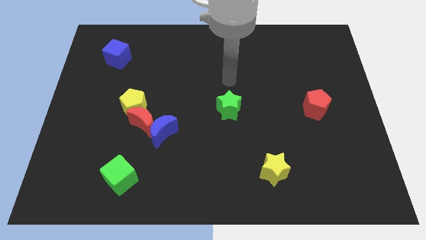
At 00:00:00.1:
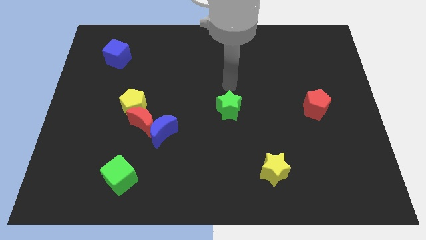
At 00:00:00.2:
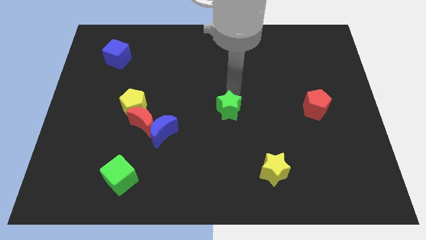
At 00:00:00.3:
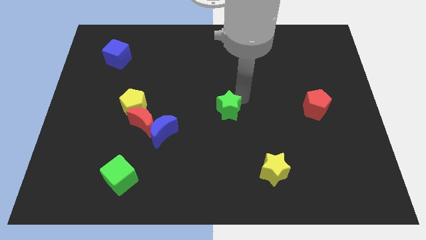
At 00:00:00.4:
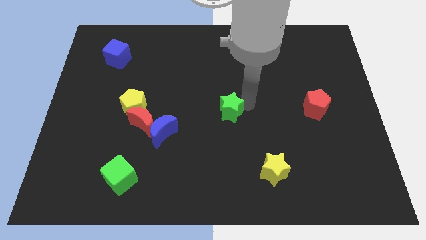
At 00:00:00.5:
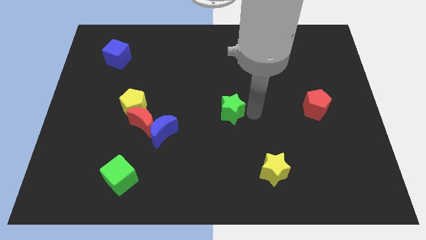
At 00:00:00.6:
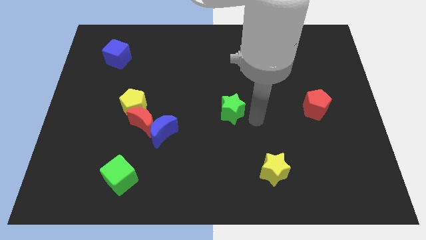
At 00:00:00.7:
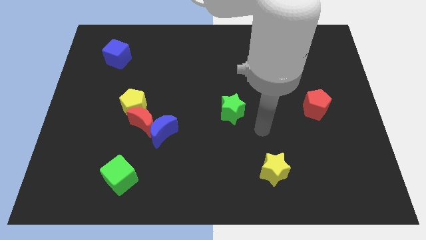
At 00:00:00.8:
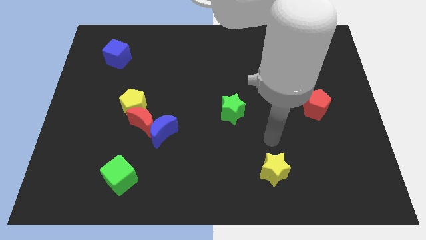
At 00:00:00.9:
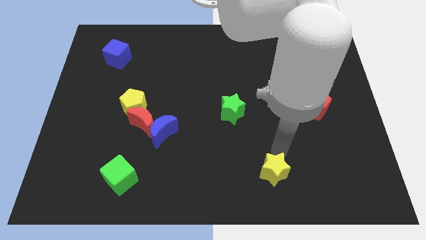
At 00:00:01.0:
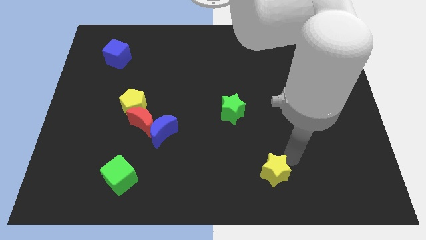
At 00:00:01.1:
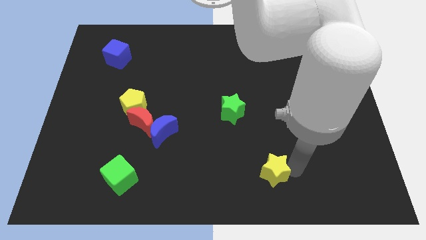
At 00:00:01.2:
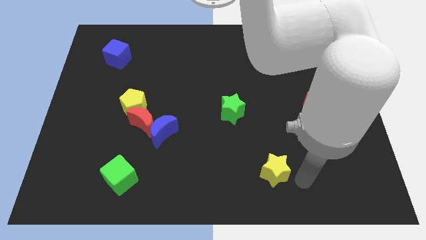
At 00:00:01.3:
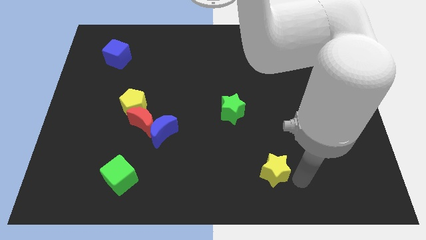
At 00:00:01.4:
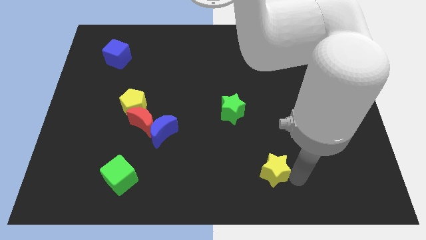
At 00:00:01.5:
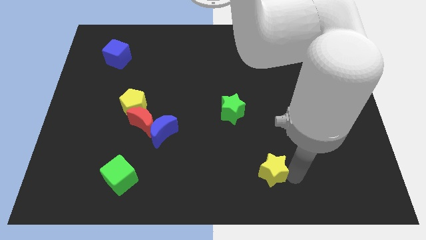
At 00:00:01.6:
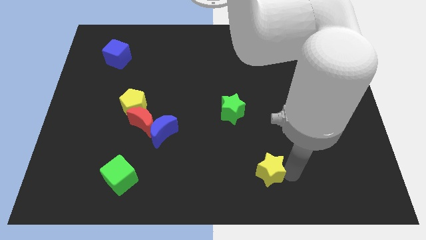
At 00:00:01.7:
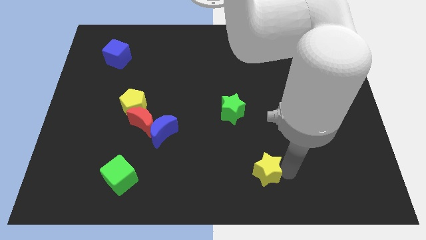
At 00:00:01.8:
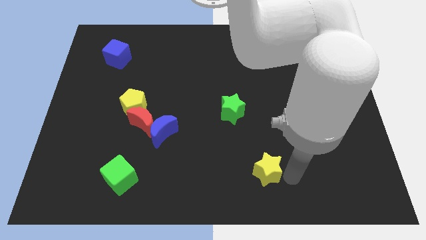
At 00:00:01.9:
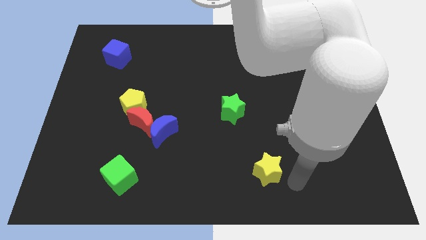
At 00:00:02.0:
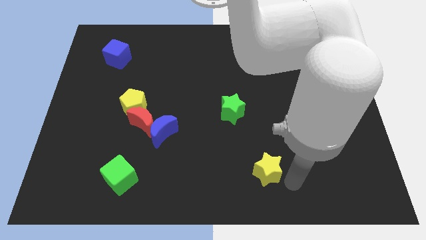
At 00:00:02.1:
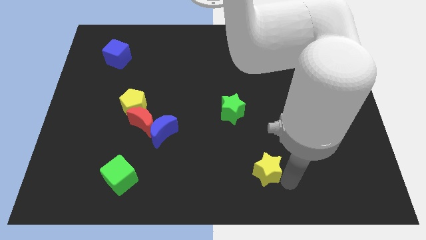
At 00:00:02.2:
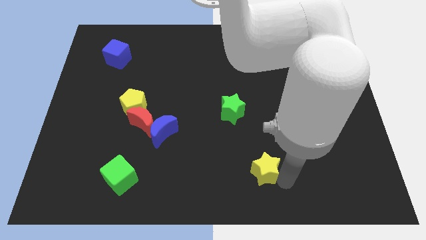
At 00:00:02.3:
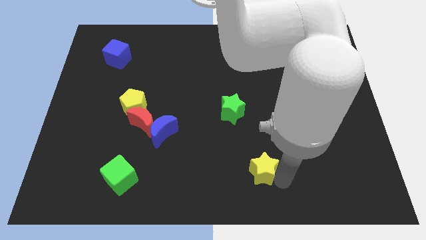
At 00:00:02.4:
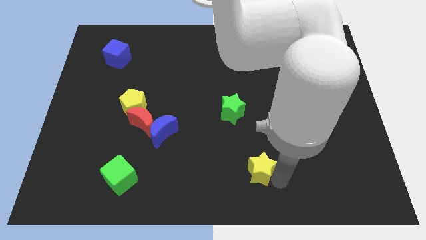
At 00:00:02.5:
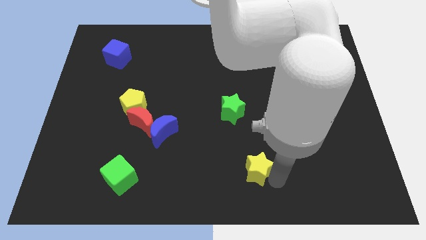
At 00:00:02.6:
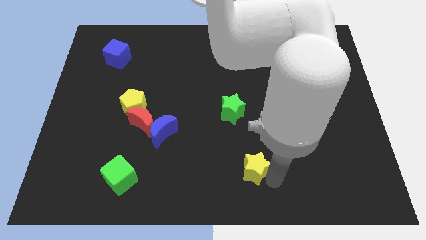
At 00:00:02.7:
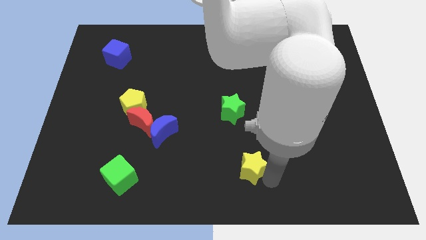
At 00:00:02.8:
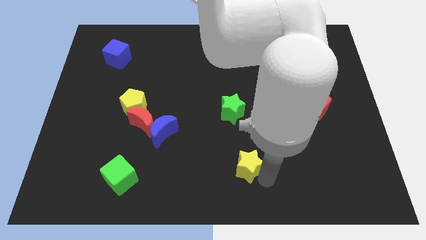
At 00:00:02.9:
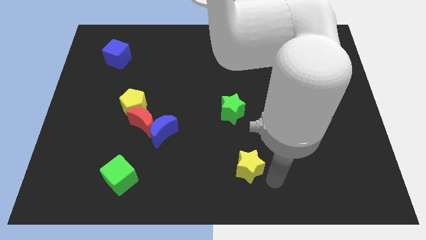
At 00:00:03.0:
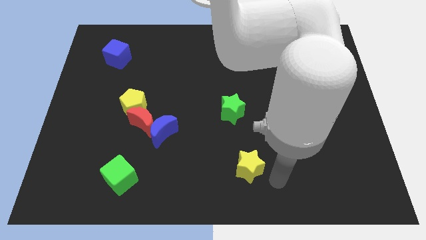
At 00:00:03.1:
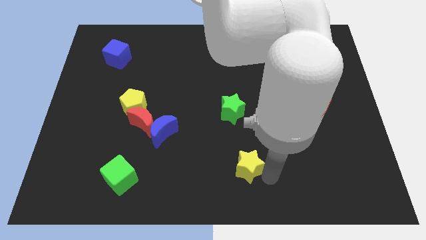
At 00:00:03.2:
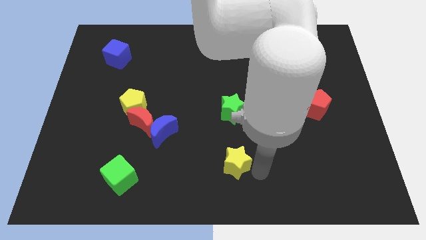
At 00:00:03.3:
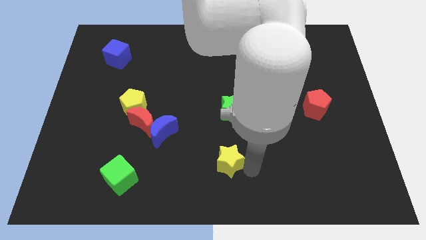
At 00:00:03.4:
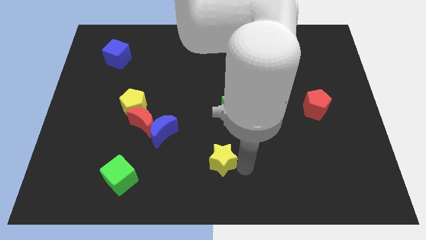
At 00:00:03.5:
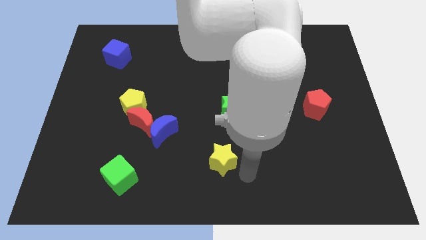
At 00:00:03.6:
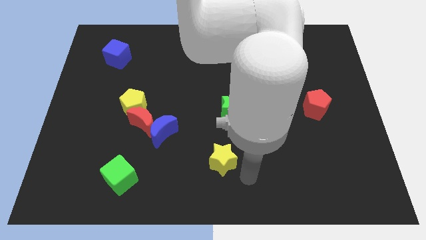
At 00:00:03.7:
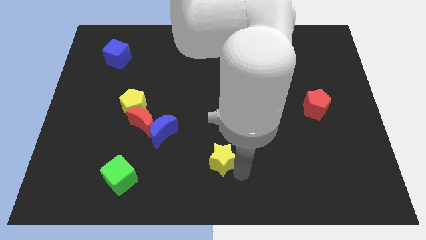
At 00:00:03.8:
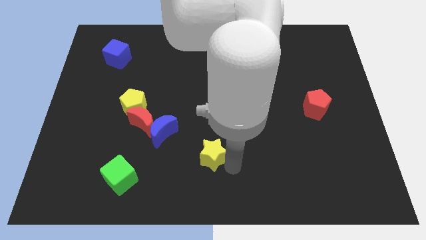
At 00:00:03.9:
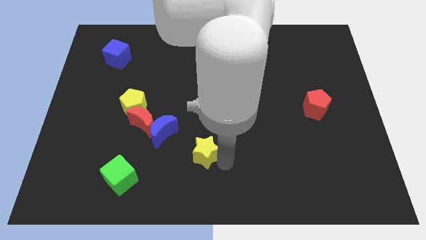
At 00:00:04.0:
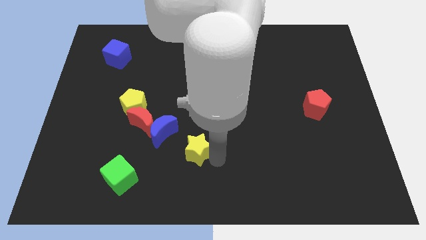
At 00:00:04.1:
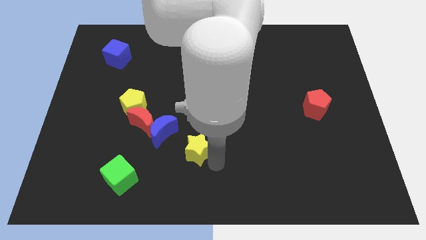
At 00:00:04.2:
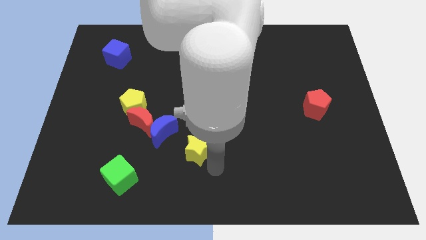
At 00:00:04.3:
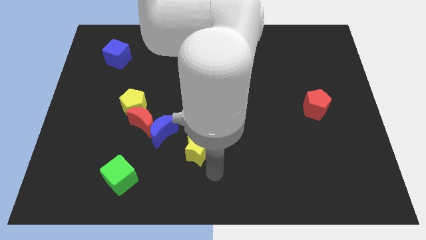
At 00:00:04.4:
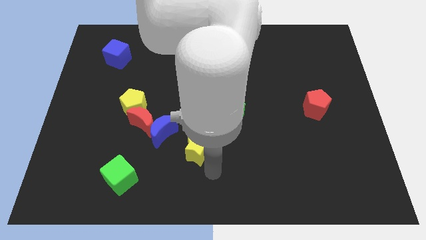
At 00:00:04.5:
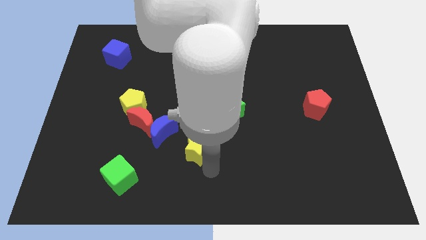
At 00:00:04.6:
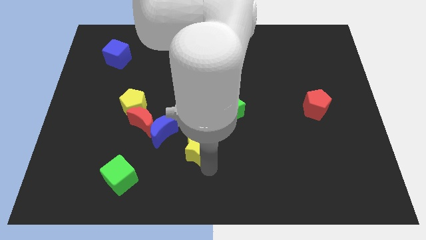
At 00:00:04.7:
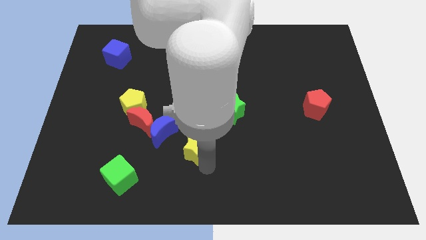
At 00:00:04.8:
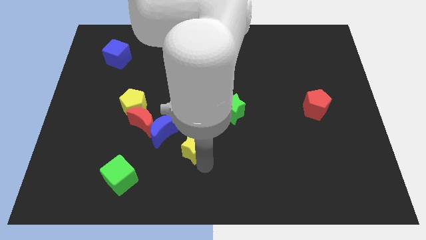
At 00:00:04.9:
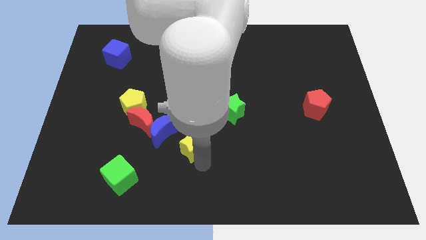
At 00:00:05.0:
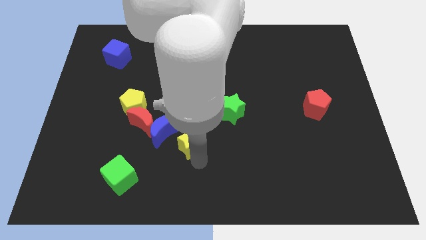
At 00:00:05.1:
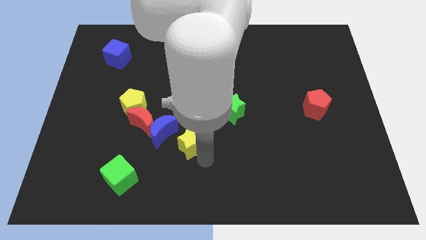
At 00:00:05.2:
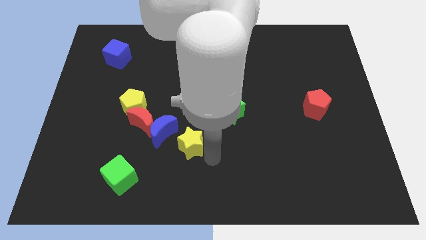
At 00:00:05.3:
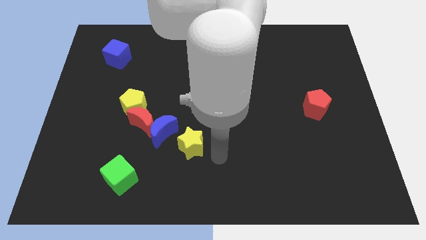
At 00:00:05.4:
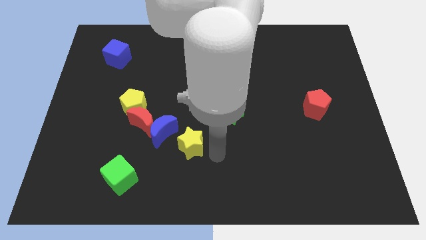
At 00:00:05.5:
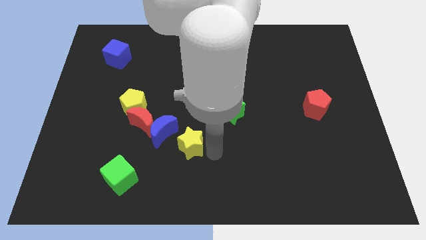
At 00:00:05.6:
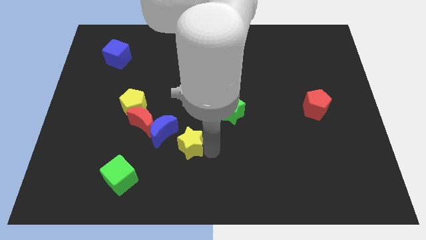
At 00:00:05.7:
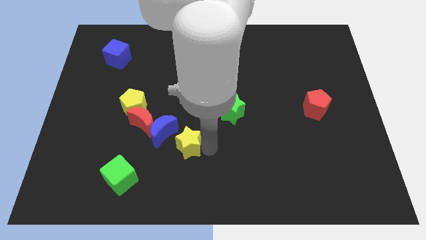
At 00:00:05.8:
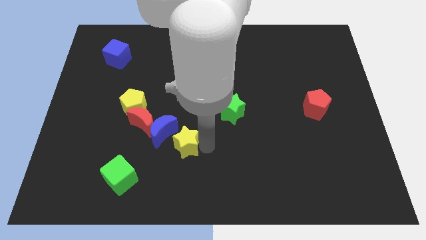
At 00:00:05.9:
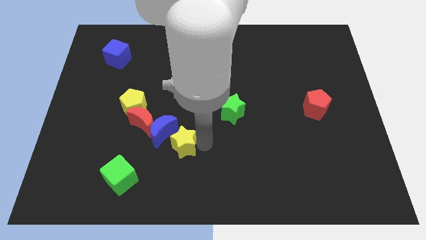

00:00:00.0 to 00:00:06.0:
move the yellow star next to the blue moon

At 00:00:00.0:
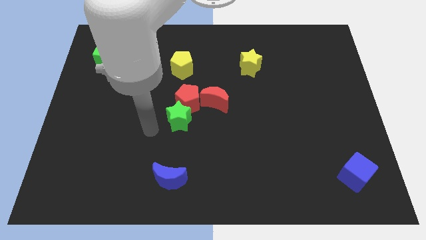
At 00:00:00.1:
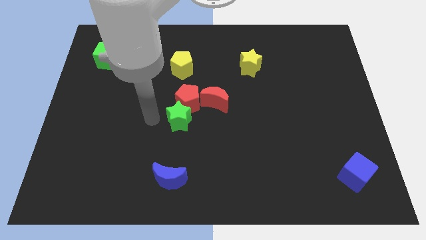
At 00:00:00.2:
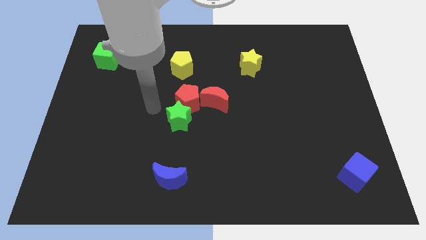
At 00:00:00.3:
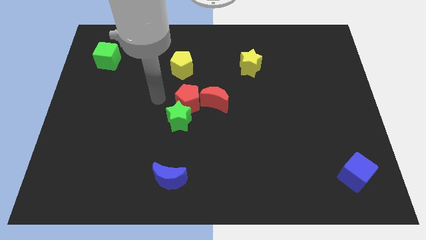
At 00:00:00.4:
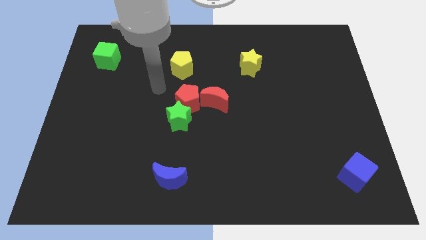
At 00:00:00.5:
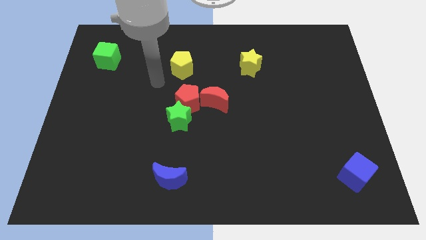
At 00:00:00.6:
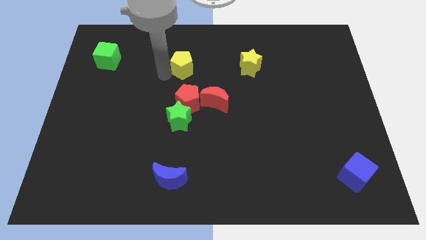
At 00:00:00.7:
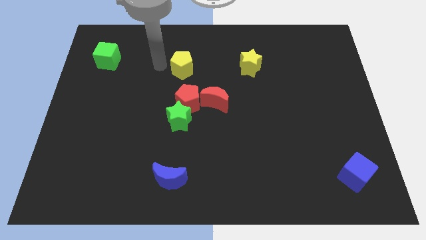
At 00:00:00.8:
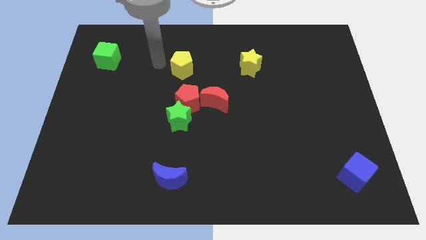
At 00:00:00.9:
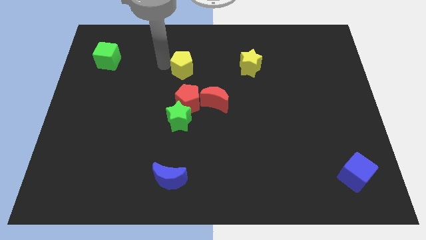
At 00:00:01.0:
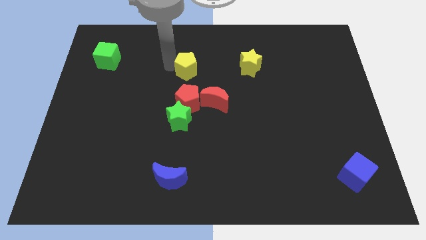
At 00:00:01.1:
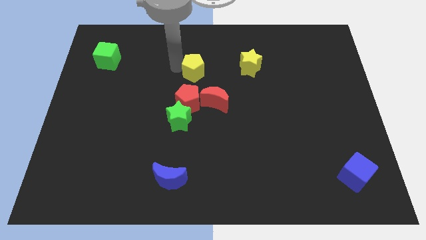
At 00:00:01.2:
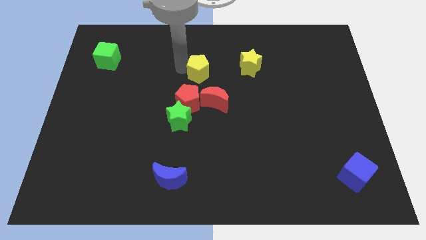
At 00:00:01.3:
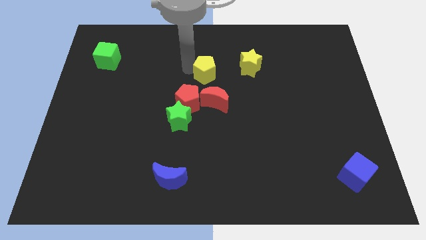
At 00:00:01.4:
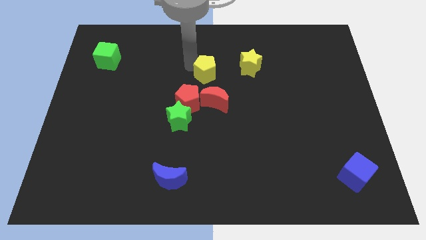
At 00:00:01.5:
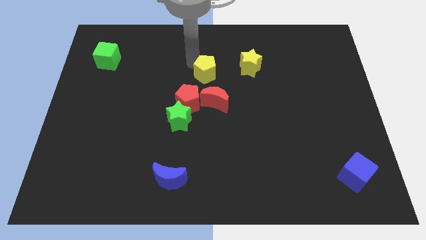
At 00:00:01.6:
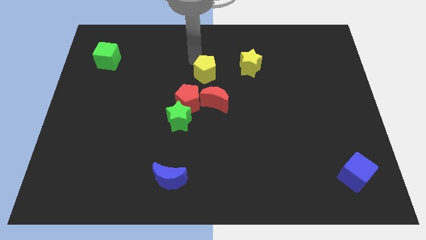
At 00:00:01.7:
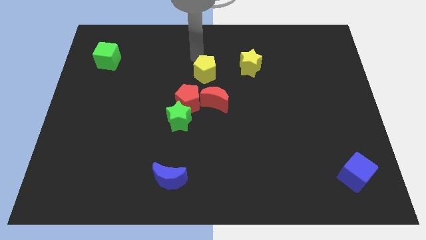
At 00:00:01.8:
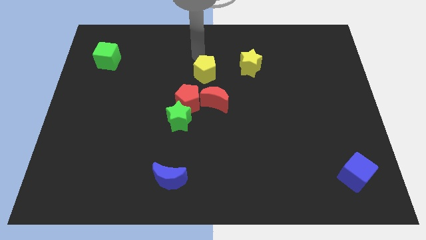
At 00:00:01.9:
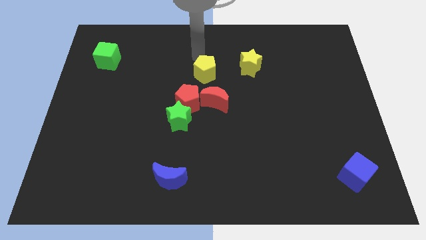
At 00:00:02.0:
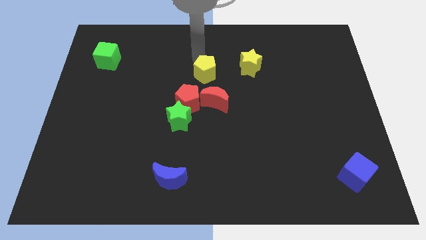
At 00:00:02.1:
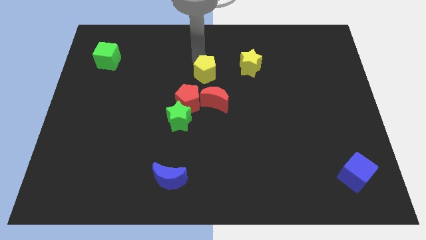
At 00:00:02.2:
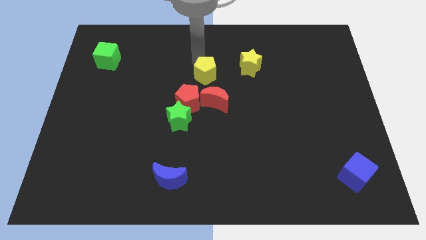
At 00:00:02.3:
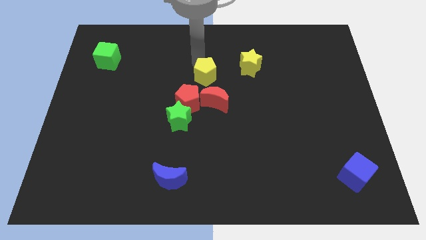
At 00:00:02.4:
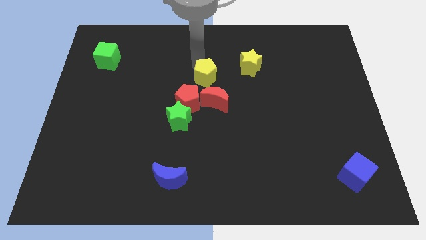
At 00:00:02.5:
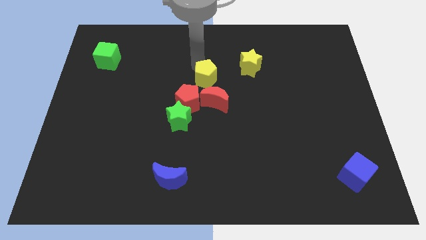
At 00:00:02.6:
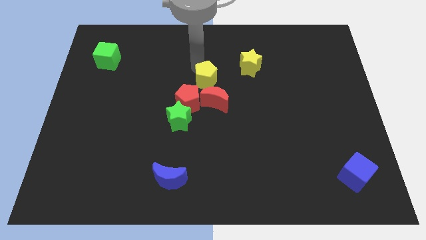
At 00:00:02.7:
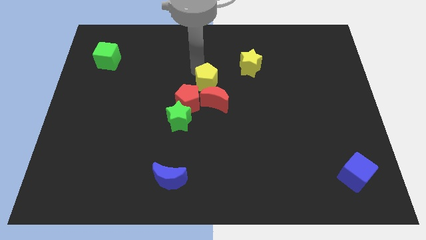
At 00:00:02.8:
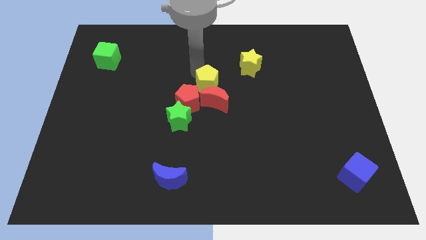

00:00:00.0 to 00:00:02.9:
put the yellow pentagon next to the red moon
